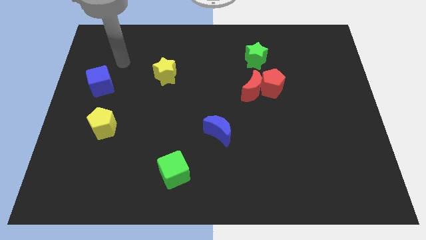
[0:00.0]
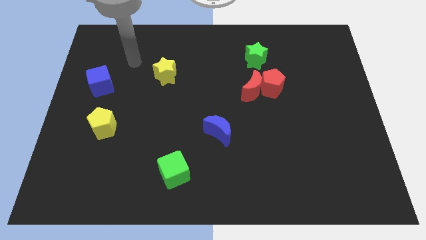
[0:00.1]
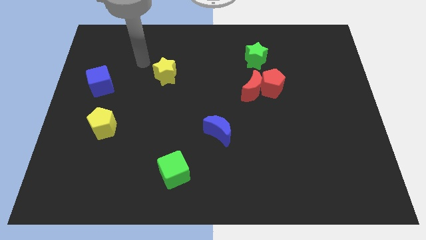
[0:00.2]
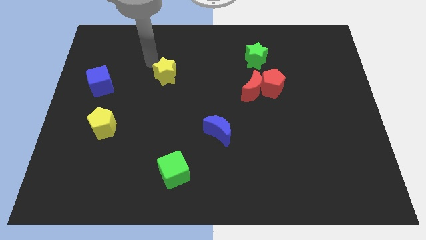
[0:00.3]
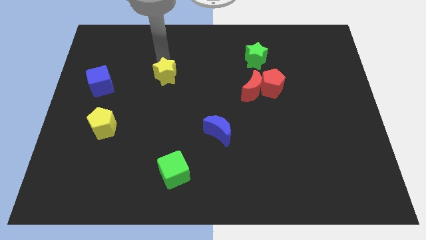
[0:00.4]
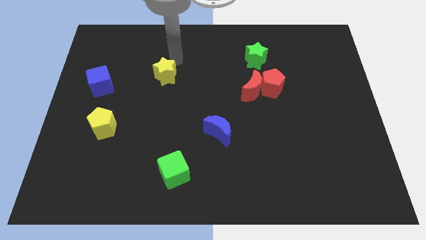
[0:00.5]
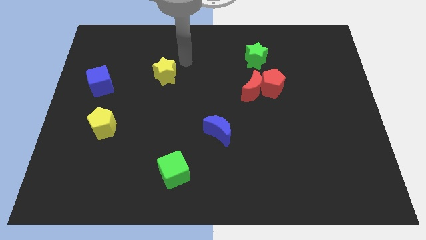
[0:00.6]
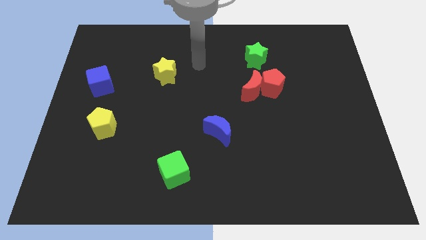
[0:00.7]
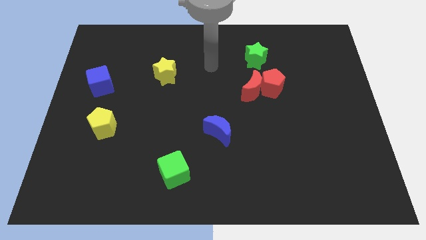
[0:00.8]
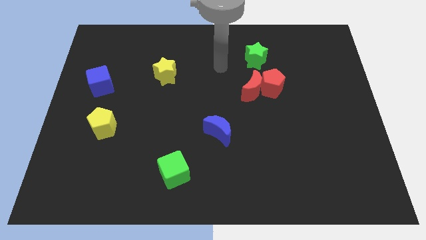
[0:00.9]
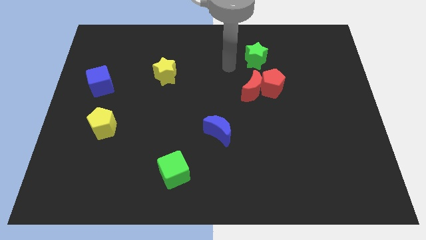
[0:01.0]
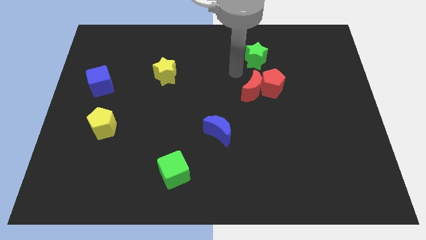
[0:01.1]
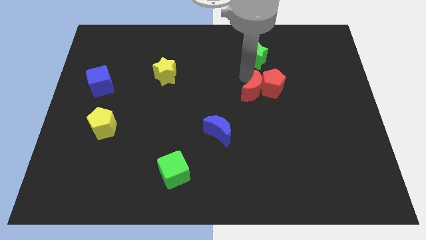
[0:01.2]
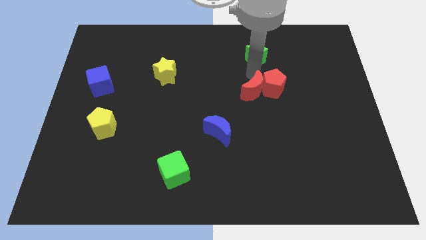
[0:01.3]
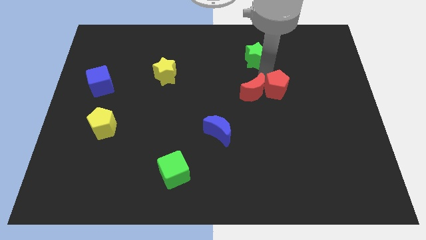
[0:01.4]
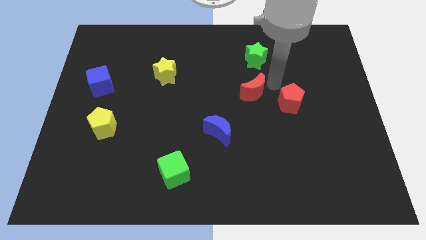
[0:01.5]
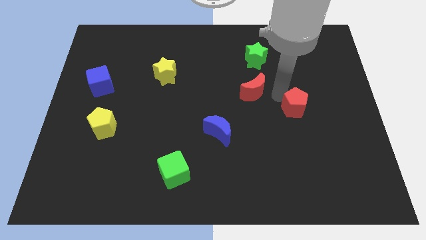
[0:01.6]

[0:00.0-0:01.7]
pull the red moon apart from the red pentagon

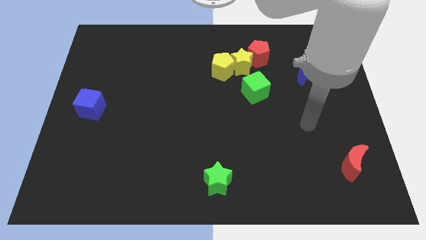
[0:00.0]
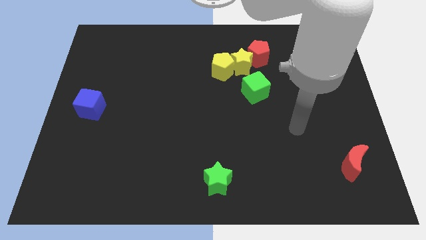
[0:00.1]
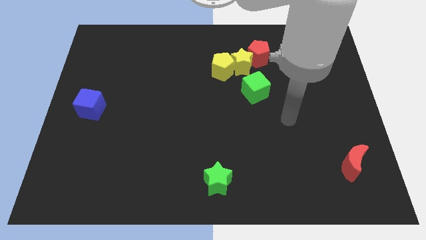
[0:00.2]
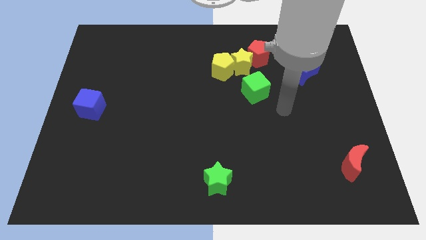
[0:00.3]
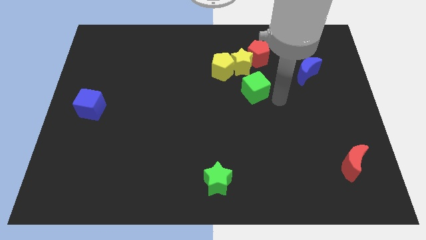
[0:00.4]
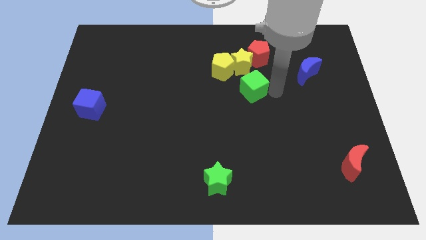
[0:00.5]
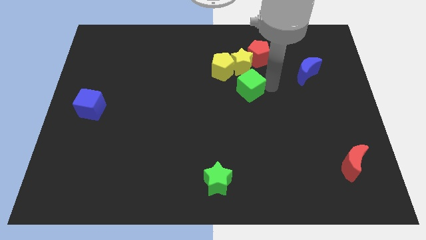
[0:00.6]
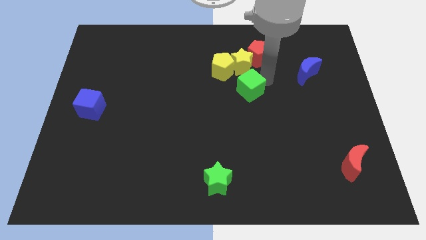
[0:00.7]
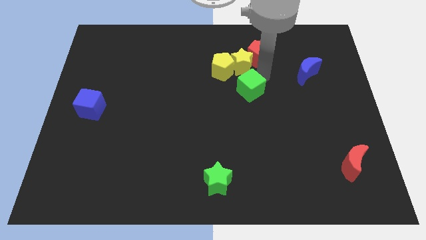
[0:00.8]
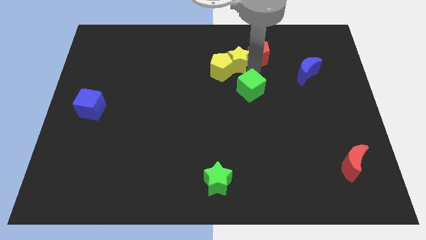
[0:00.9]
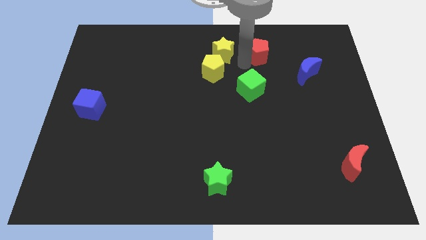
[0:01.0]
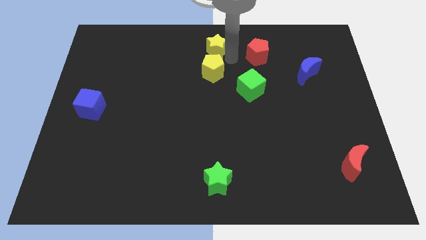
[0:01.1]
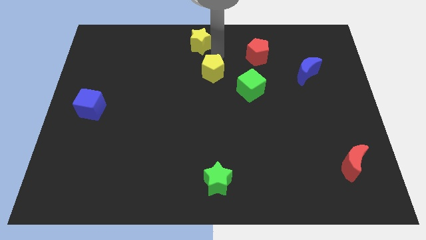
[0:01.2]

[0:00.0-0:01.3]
move the yellow pentagon away from the yellow star

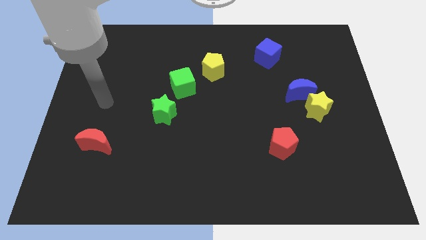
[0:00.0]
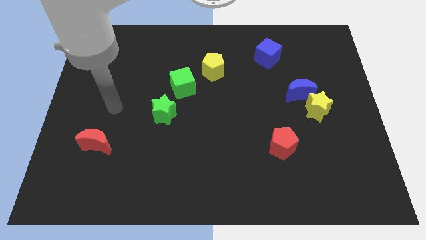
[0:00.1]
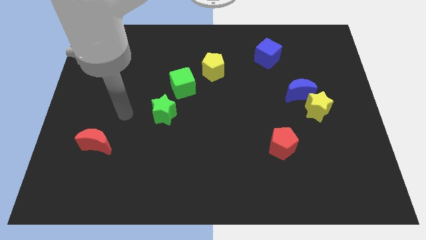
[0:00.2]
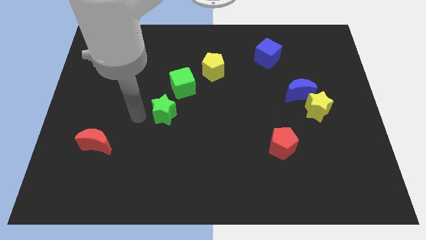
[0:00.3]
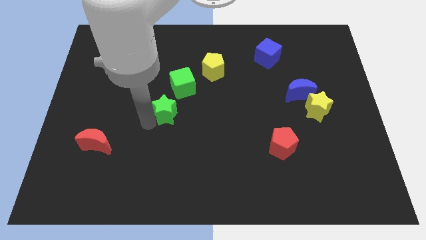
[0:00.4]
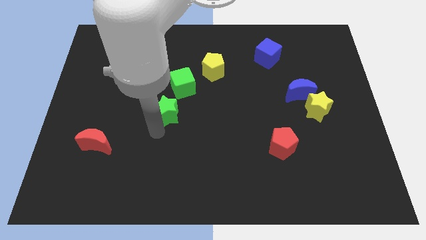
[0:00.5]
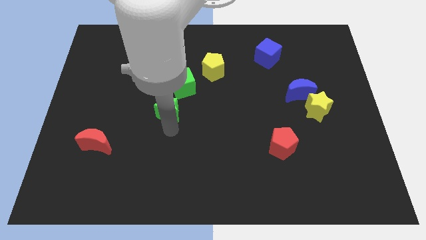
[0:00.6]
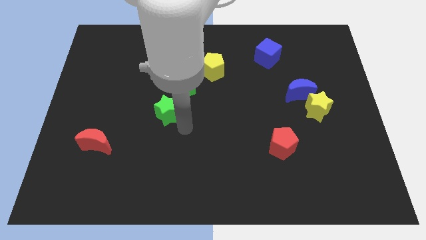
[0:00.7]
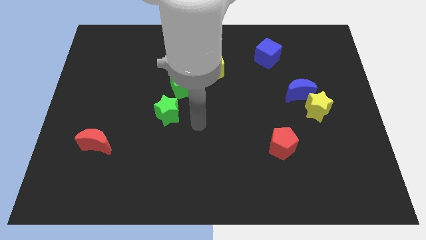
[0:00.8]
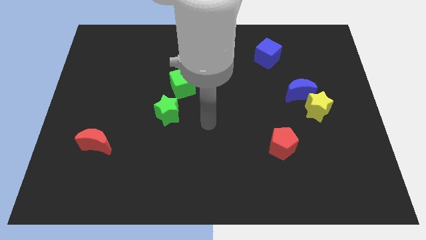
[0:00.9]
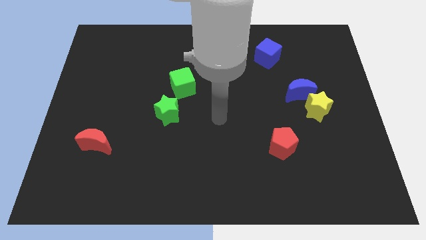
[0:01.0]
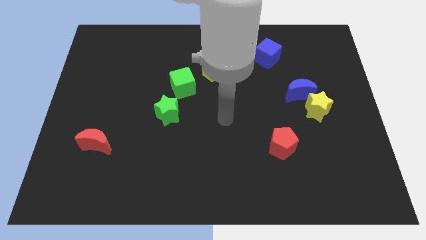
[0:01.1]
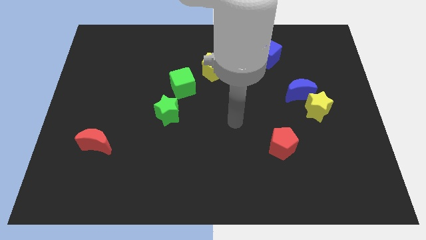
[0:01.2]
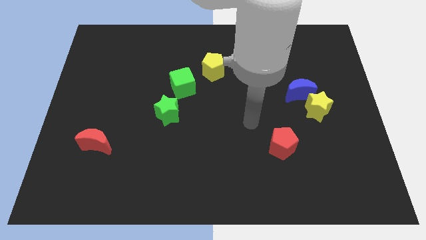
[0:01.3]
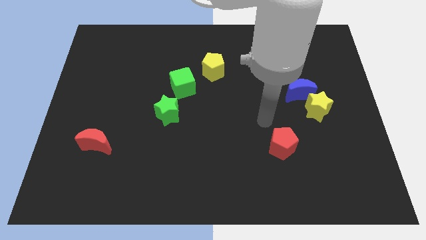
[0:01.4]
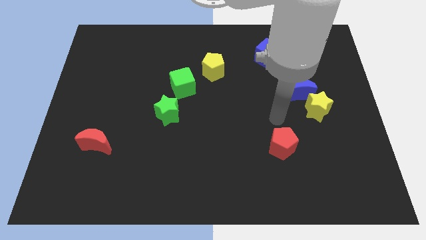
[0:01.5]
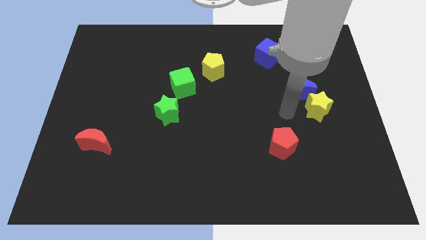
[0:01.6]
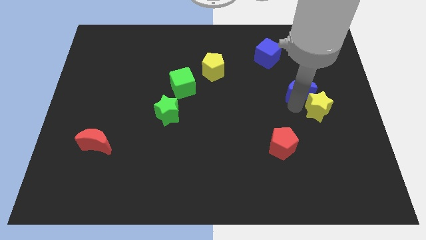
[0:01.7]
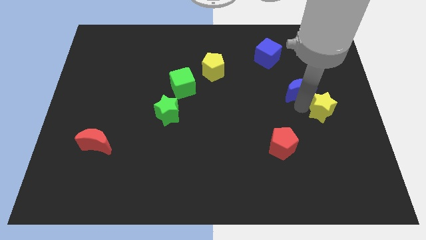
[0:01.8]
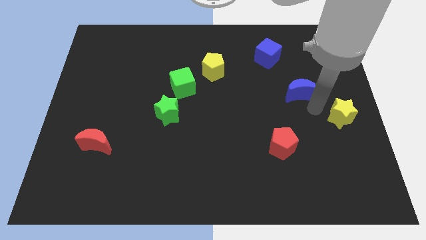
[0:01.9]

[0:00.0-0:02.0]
separate the blue moon from the yellow star

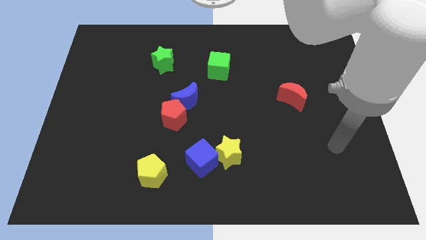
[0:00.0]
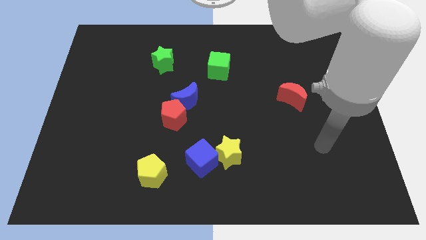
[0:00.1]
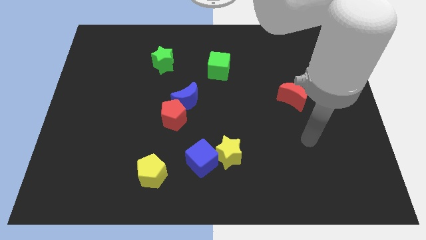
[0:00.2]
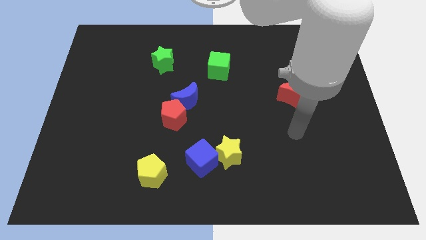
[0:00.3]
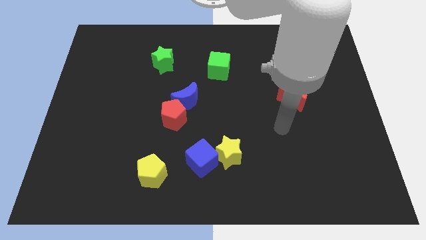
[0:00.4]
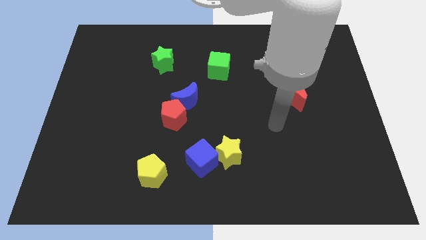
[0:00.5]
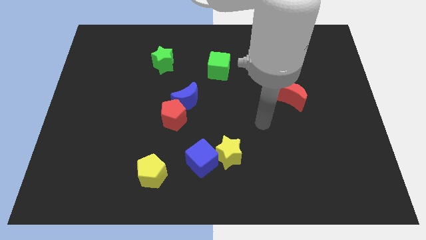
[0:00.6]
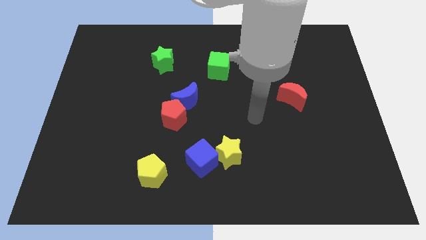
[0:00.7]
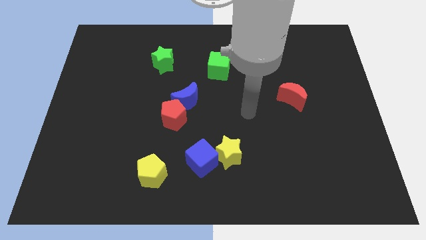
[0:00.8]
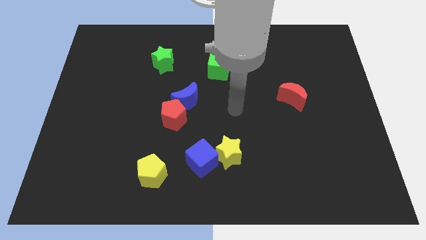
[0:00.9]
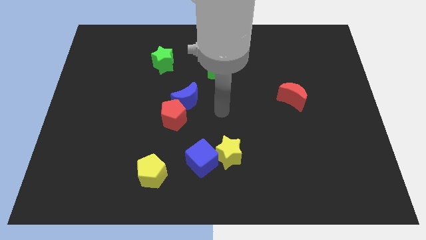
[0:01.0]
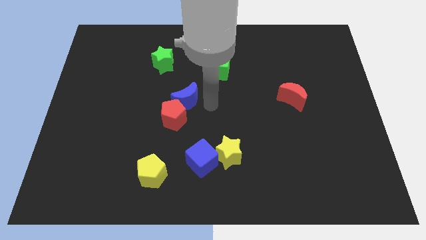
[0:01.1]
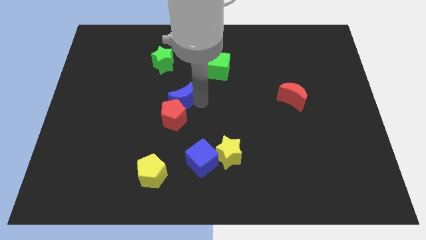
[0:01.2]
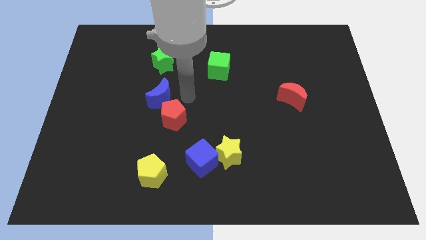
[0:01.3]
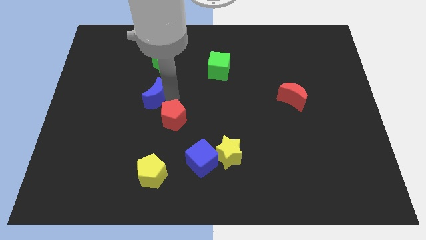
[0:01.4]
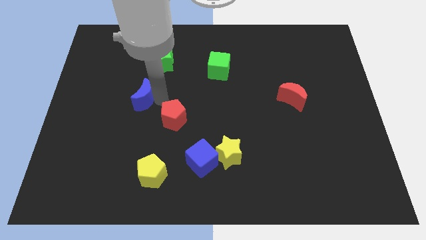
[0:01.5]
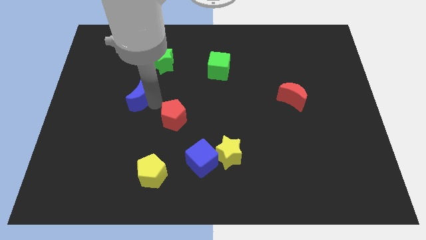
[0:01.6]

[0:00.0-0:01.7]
move the red pentagon away from the blue moon

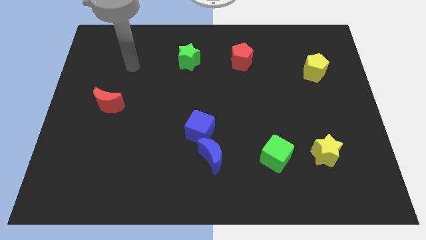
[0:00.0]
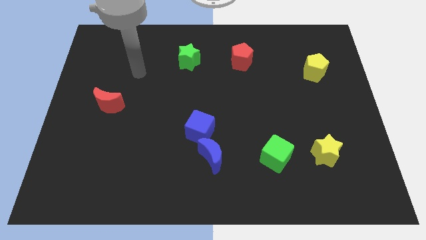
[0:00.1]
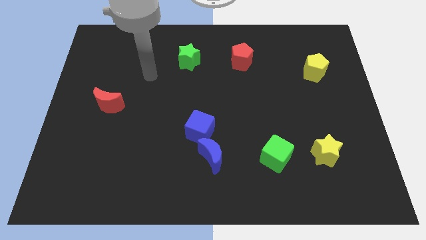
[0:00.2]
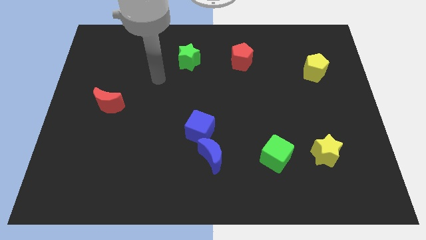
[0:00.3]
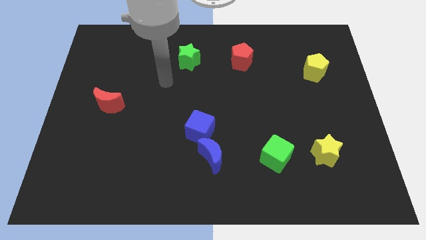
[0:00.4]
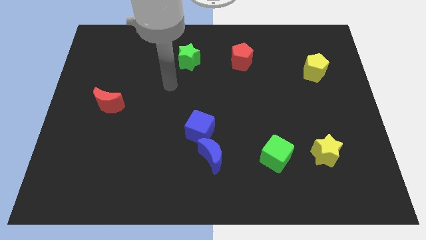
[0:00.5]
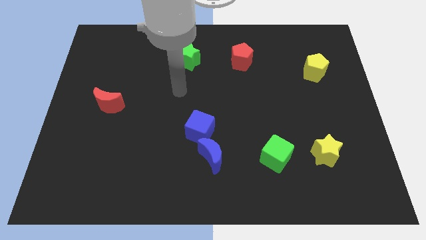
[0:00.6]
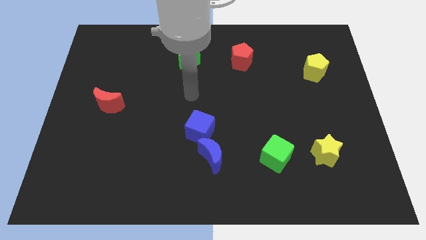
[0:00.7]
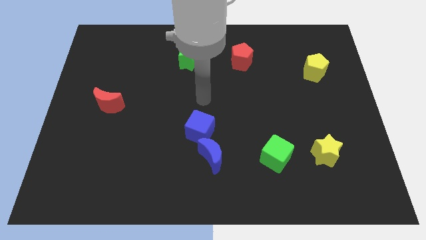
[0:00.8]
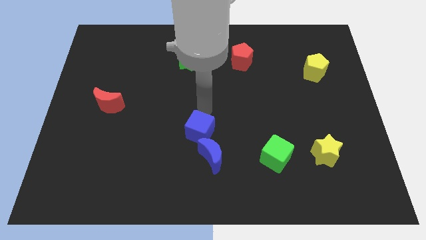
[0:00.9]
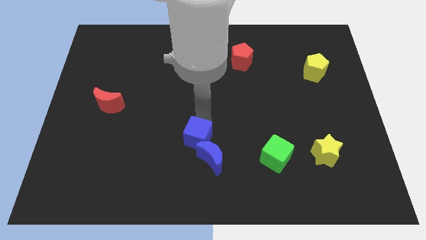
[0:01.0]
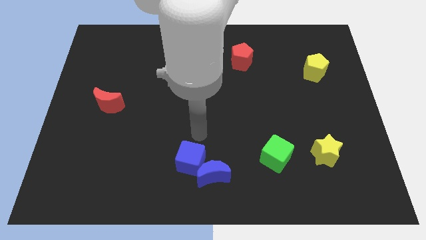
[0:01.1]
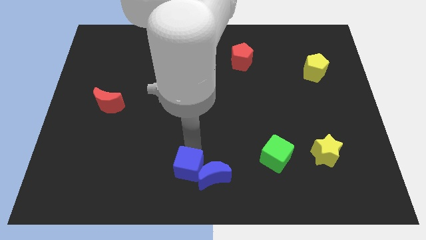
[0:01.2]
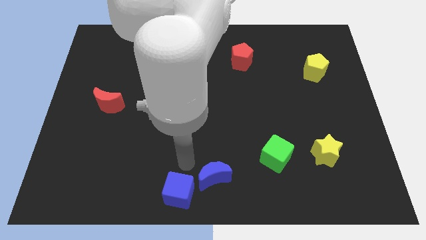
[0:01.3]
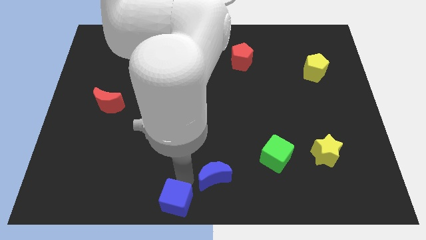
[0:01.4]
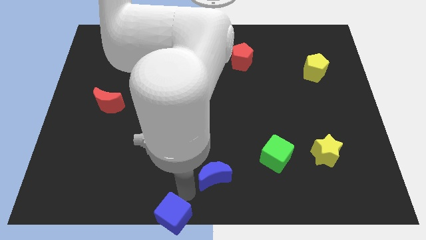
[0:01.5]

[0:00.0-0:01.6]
move the blue moon away from the blue cube

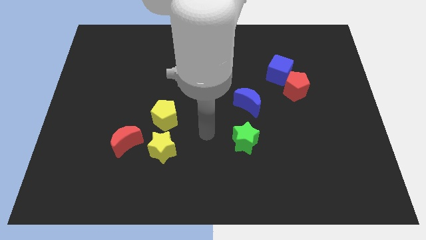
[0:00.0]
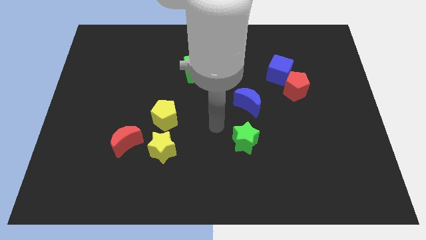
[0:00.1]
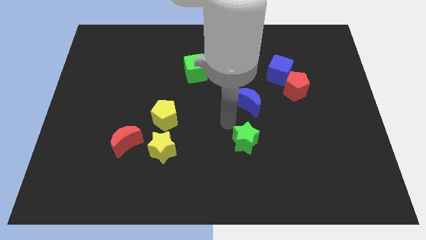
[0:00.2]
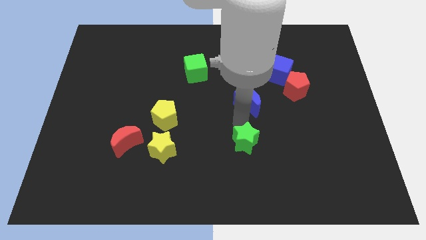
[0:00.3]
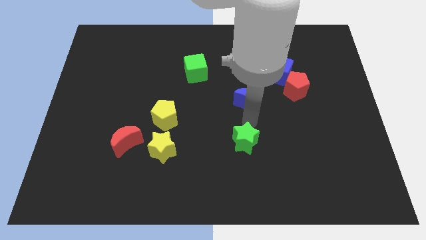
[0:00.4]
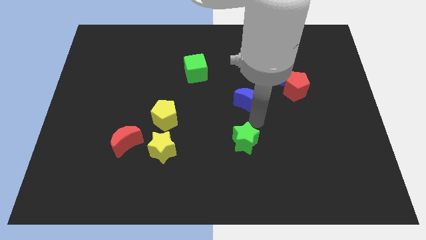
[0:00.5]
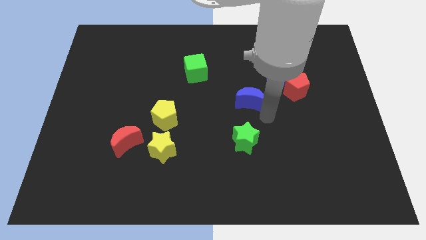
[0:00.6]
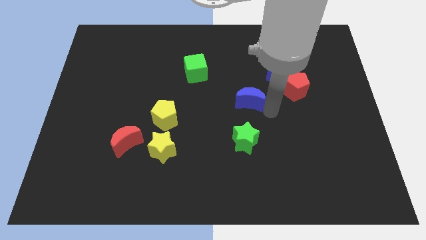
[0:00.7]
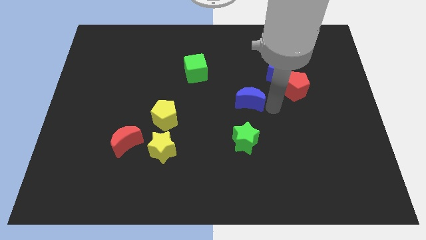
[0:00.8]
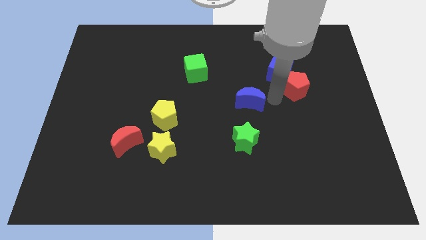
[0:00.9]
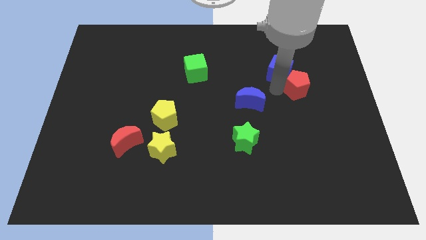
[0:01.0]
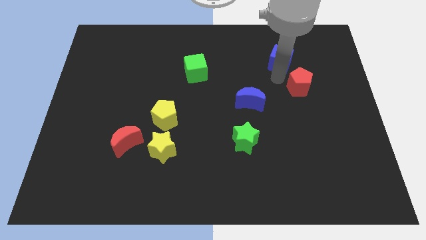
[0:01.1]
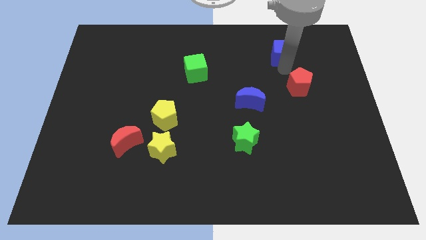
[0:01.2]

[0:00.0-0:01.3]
move the red pentagon away from the blue cube
